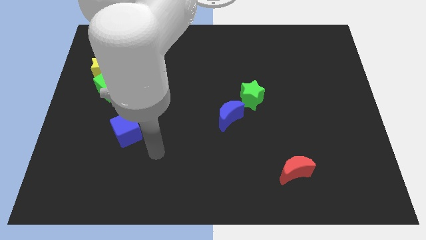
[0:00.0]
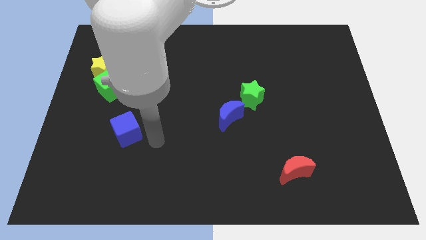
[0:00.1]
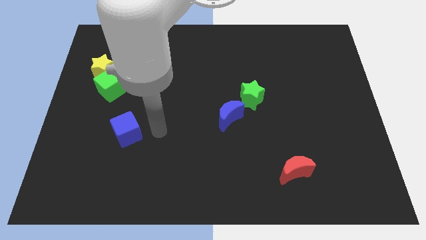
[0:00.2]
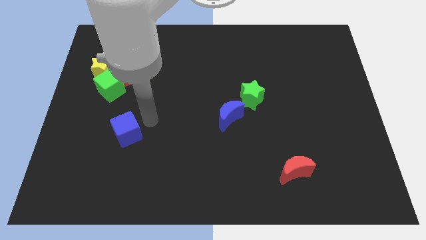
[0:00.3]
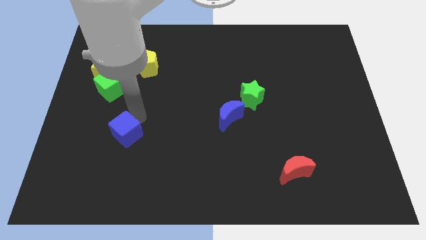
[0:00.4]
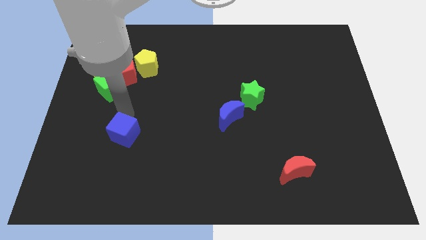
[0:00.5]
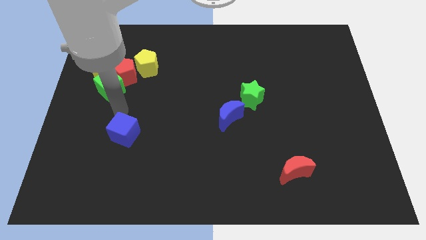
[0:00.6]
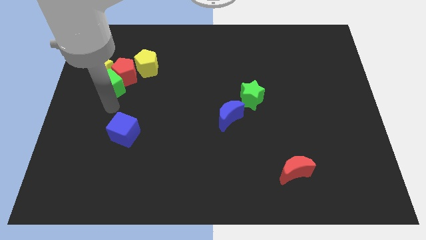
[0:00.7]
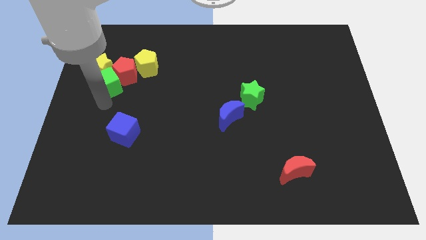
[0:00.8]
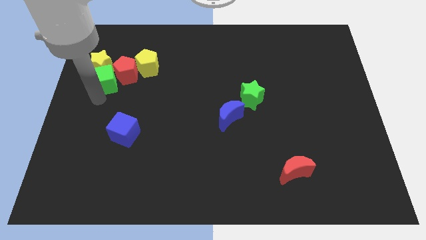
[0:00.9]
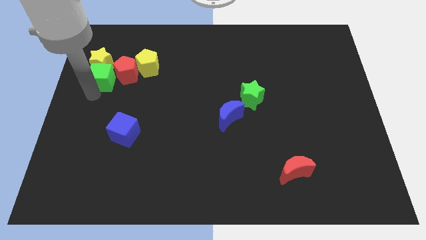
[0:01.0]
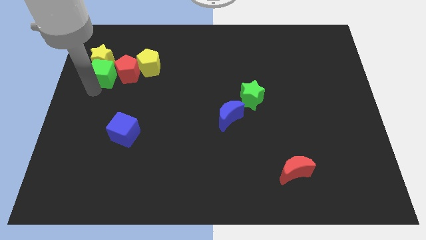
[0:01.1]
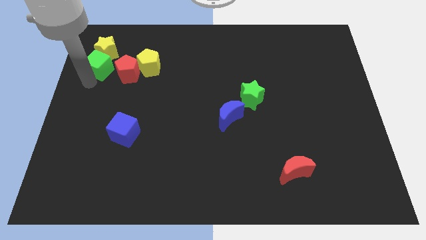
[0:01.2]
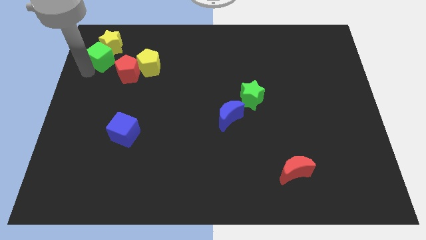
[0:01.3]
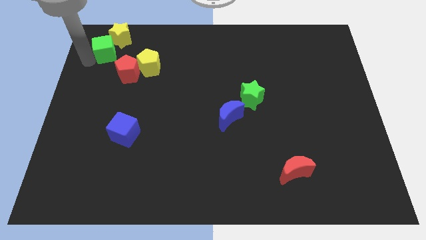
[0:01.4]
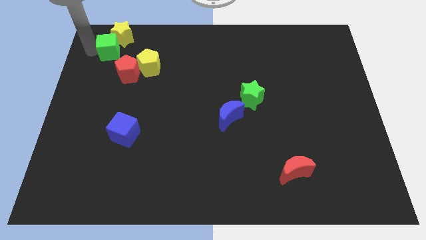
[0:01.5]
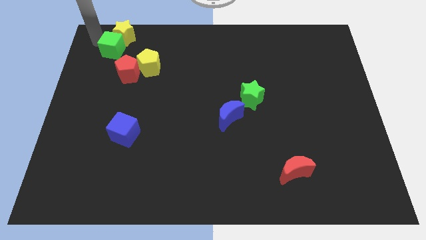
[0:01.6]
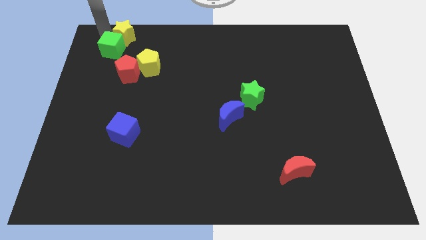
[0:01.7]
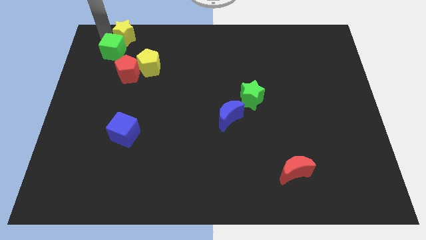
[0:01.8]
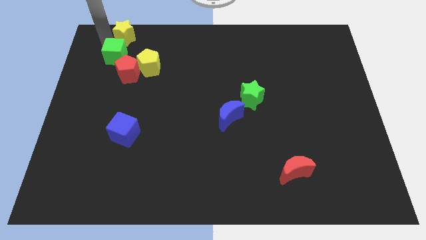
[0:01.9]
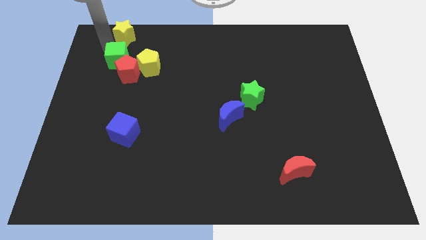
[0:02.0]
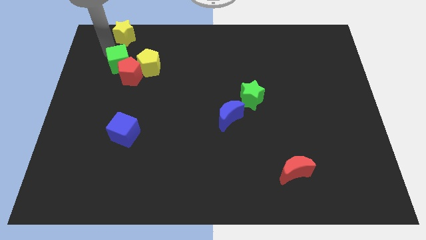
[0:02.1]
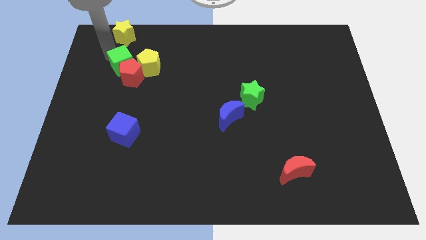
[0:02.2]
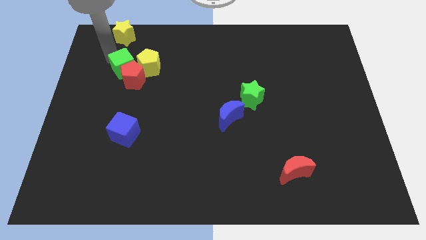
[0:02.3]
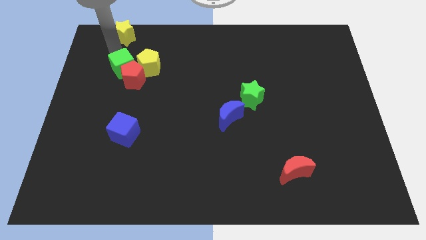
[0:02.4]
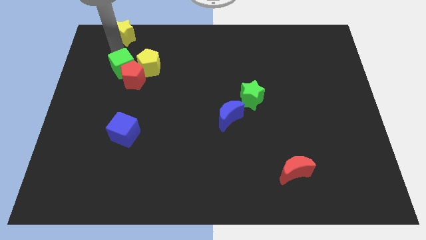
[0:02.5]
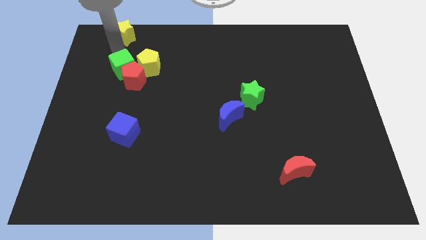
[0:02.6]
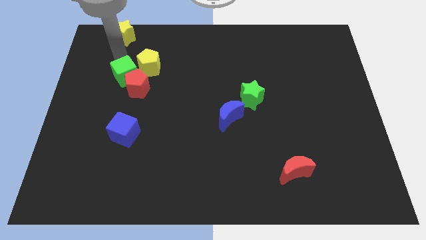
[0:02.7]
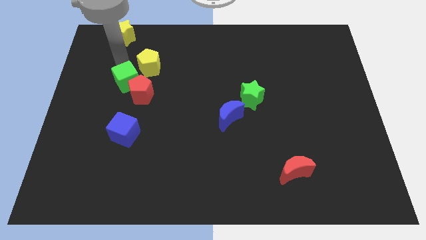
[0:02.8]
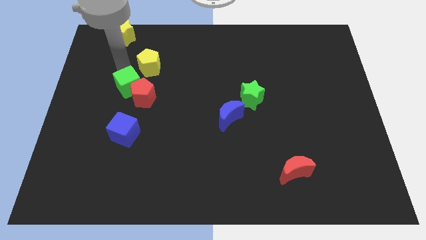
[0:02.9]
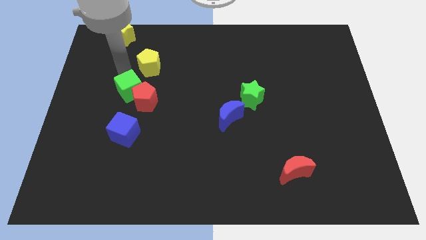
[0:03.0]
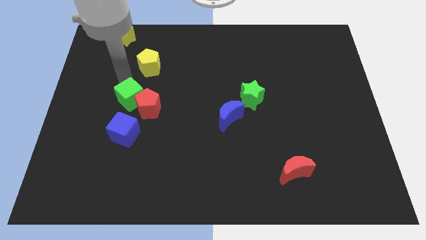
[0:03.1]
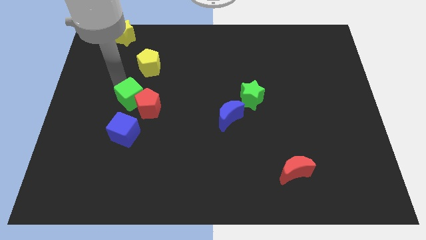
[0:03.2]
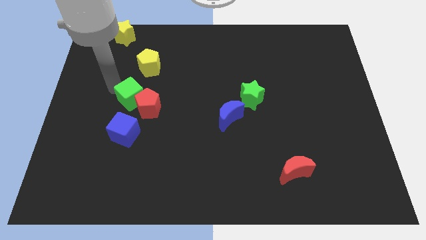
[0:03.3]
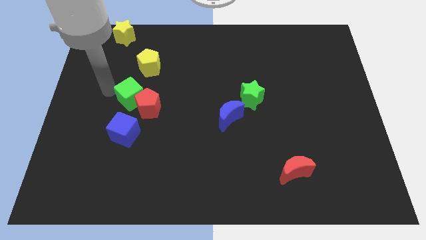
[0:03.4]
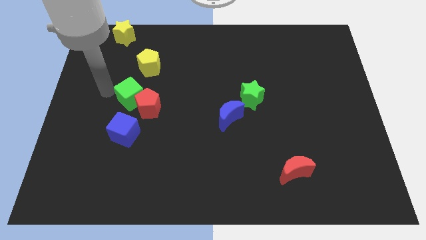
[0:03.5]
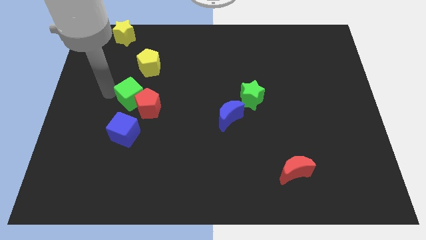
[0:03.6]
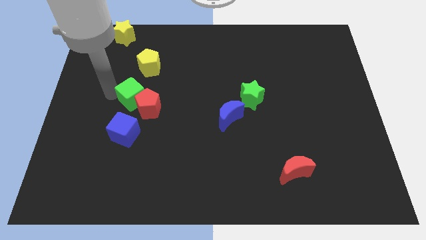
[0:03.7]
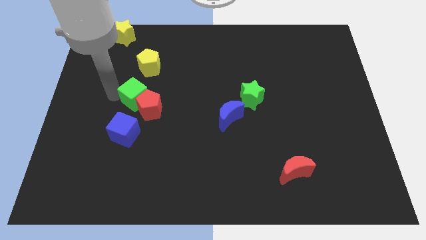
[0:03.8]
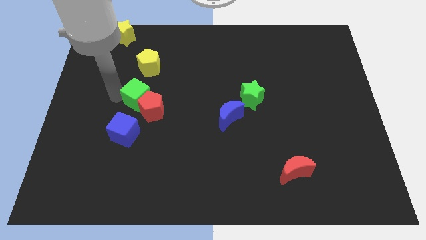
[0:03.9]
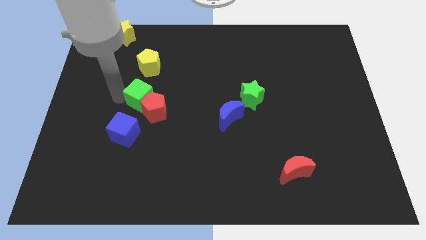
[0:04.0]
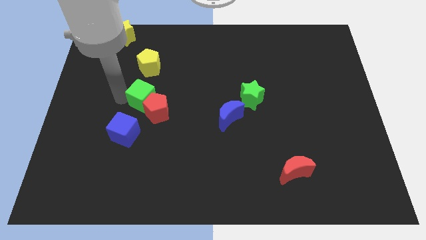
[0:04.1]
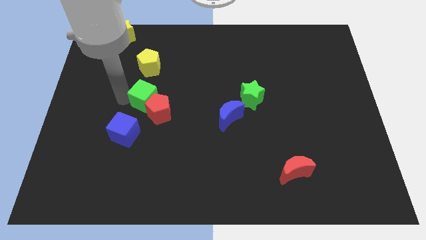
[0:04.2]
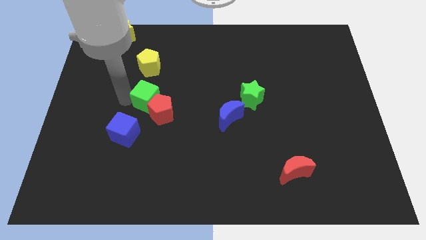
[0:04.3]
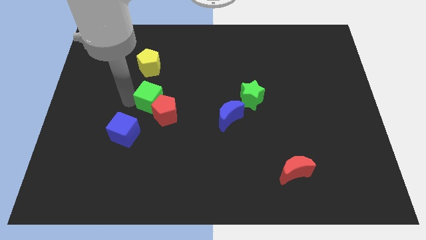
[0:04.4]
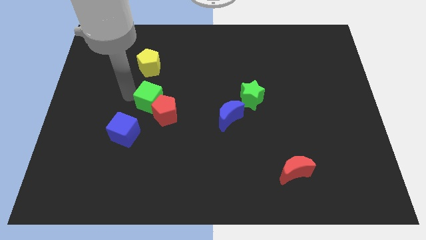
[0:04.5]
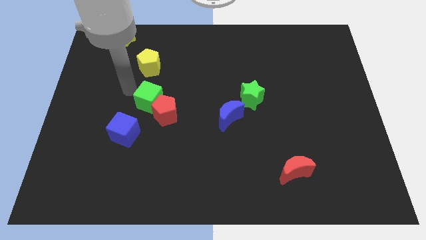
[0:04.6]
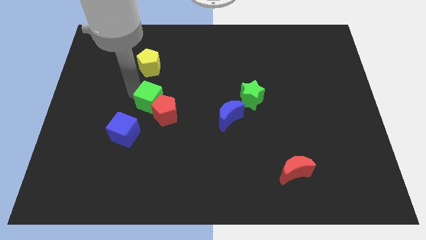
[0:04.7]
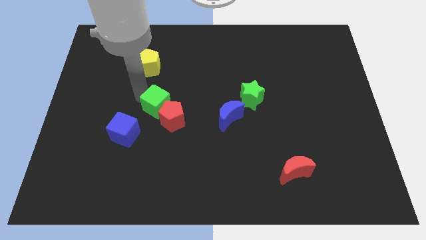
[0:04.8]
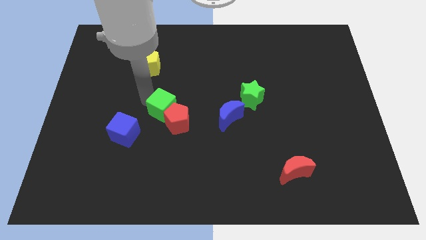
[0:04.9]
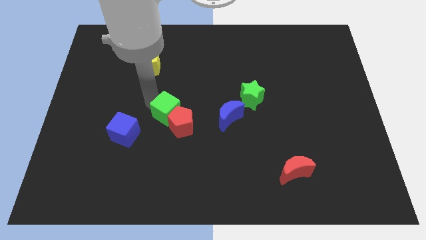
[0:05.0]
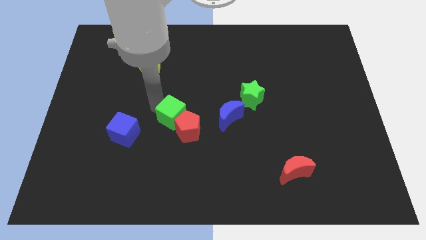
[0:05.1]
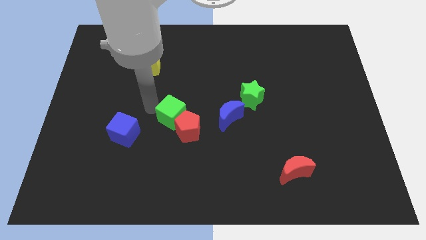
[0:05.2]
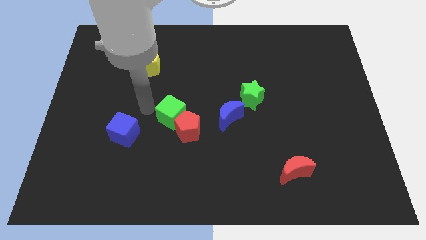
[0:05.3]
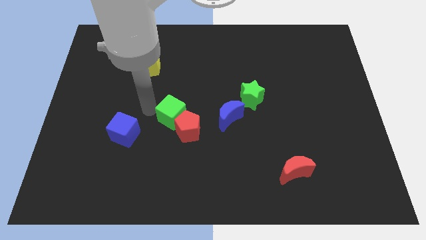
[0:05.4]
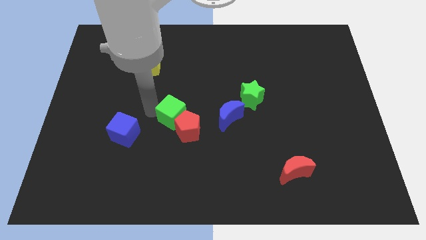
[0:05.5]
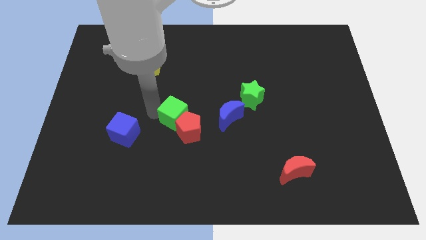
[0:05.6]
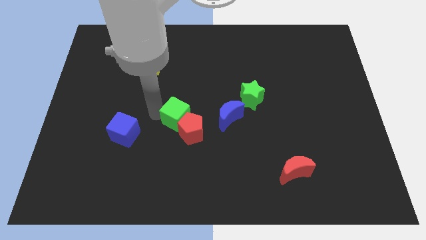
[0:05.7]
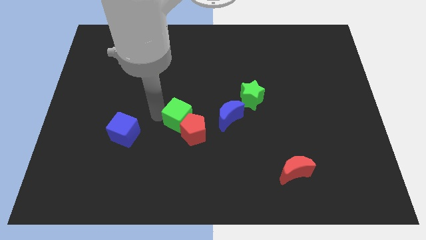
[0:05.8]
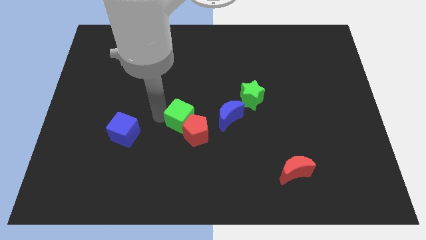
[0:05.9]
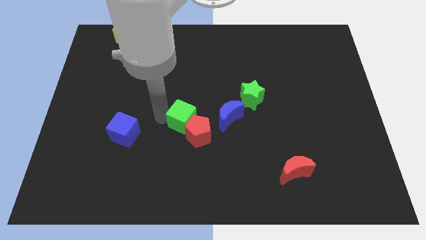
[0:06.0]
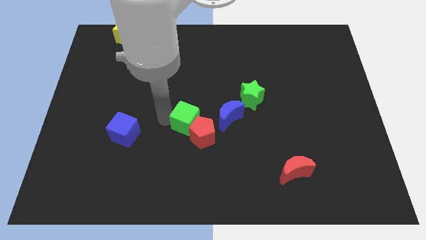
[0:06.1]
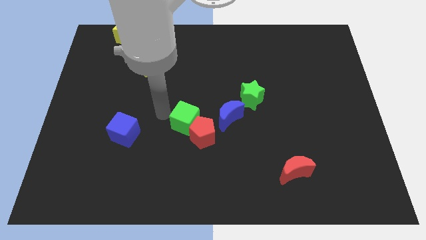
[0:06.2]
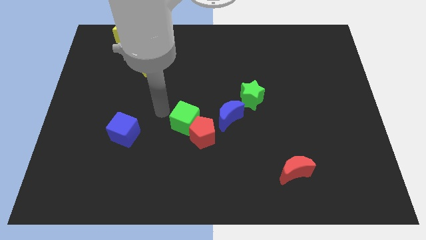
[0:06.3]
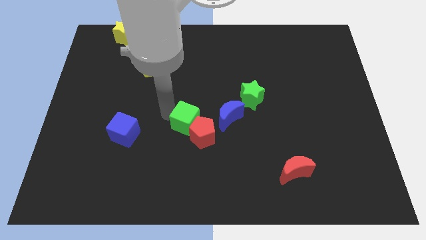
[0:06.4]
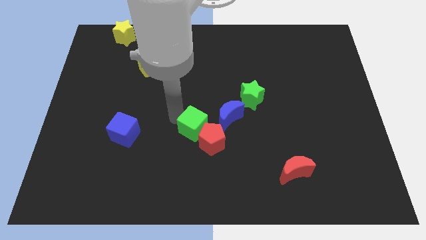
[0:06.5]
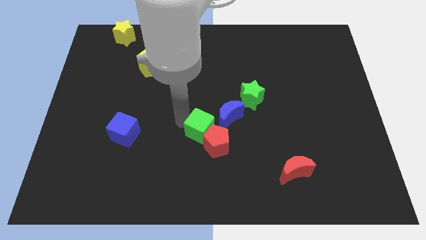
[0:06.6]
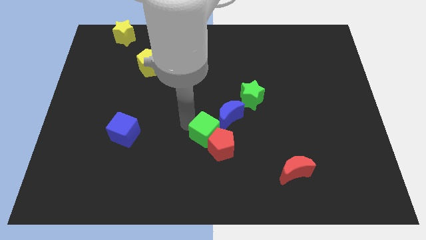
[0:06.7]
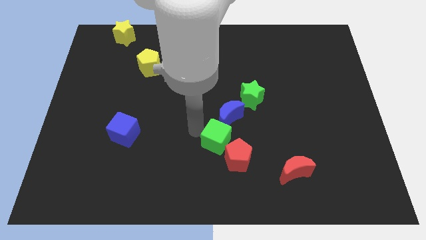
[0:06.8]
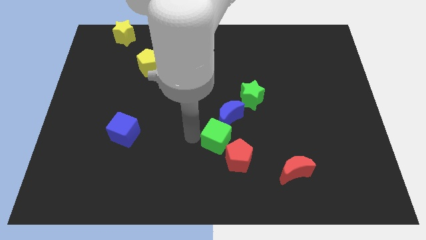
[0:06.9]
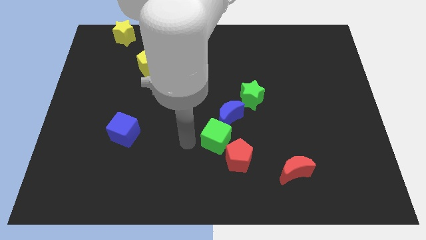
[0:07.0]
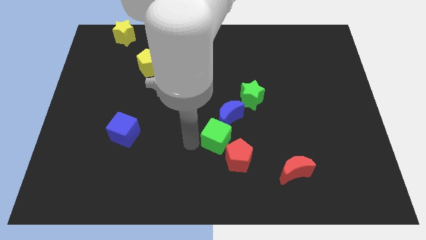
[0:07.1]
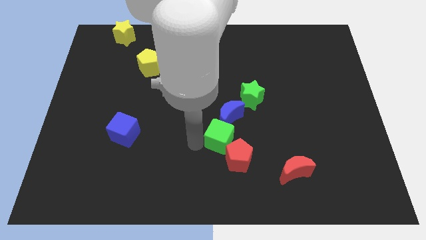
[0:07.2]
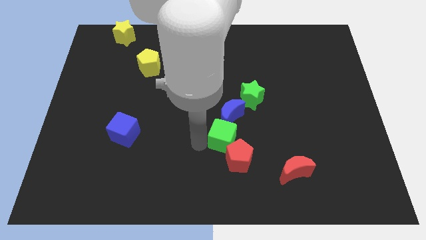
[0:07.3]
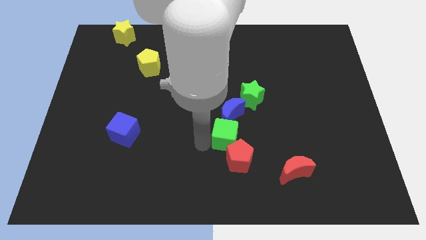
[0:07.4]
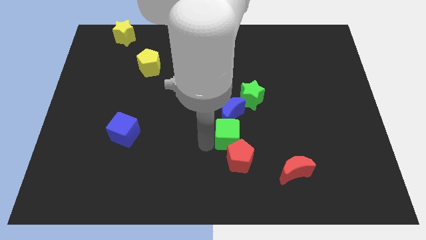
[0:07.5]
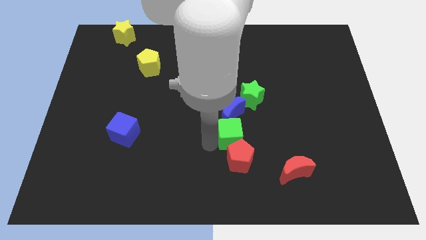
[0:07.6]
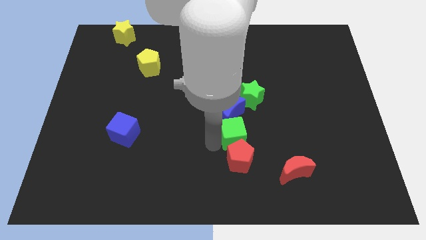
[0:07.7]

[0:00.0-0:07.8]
slide the green cube below the green star
